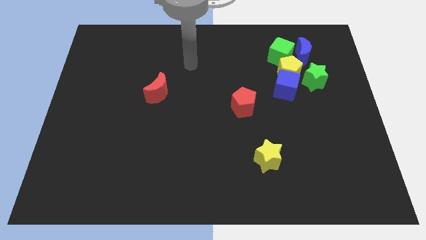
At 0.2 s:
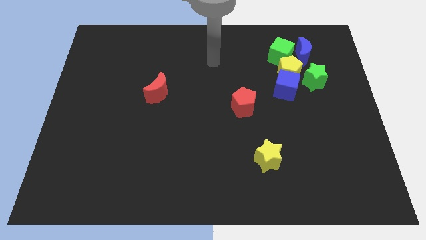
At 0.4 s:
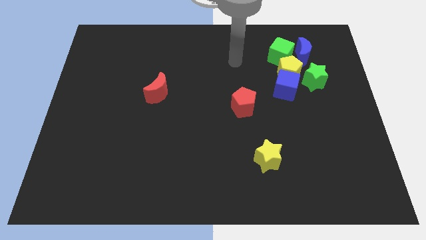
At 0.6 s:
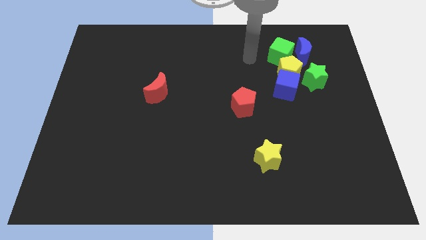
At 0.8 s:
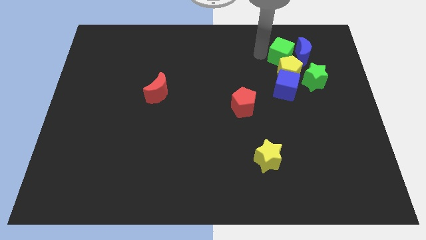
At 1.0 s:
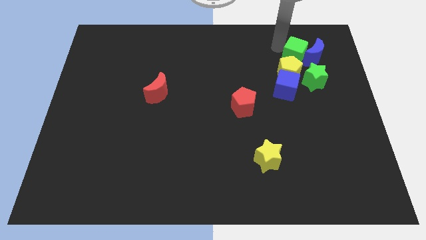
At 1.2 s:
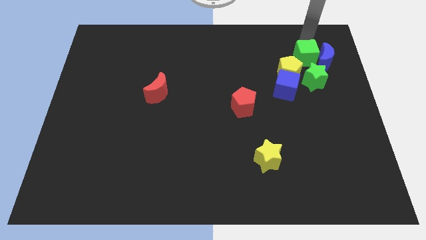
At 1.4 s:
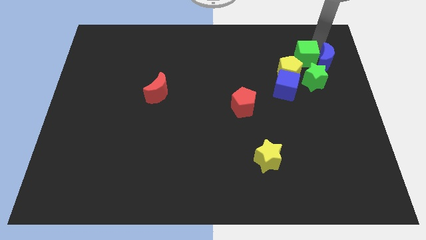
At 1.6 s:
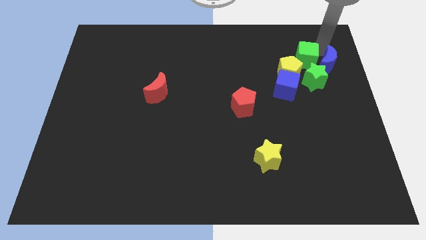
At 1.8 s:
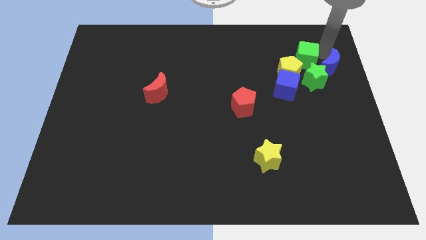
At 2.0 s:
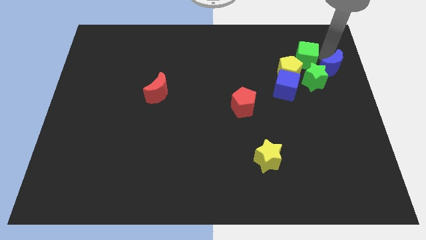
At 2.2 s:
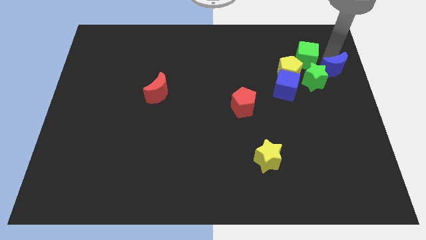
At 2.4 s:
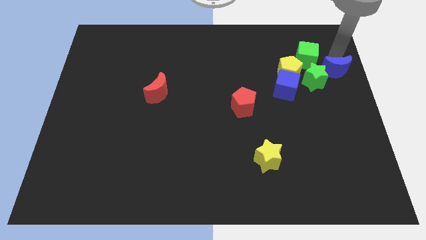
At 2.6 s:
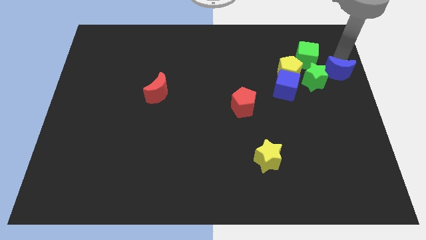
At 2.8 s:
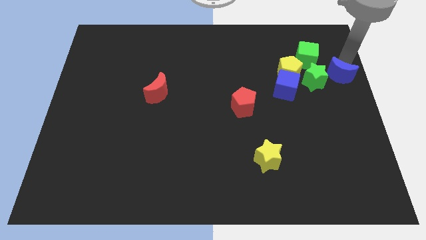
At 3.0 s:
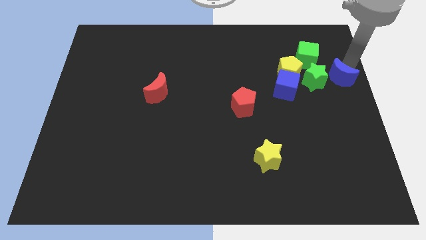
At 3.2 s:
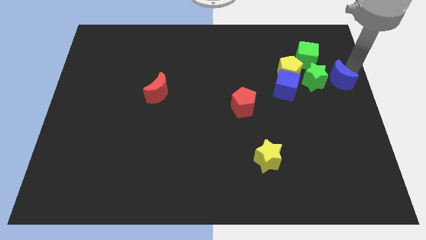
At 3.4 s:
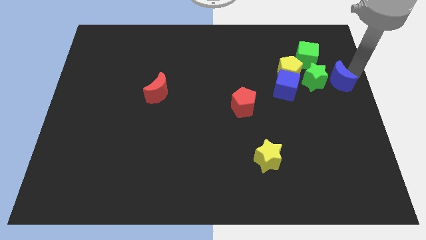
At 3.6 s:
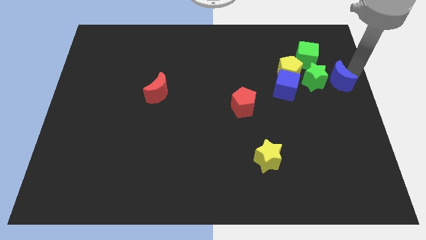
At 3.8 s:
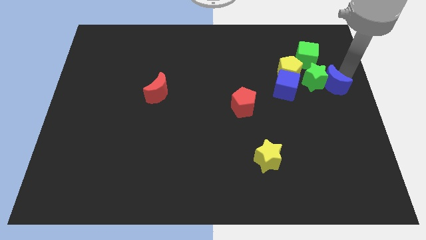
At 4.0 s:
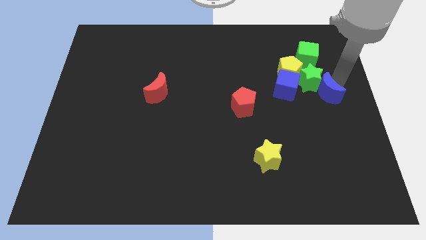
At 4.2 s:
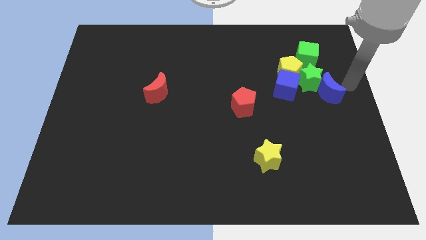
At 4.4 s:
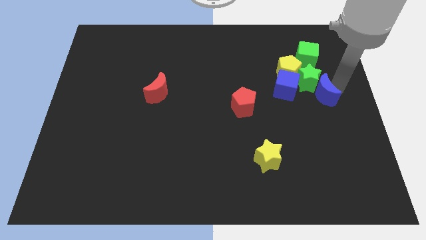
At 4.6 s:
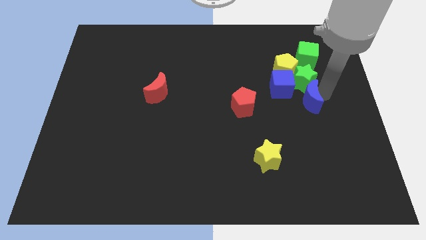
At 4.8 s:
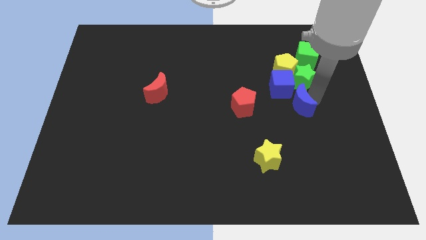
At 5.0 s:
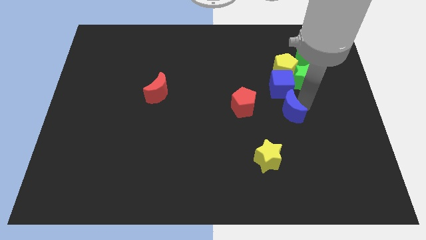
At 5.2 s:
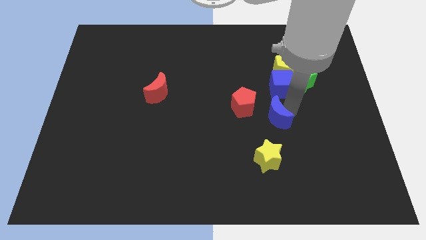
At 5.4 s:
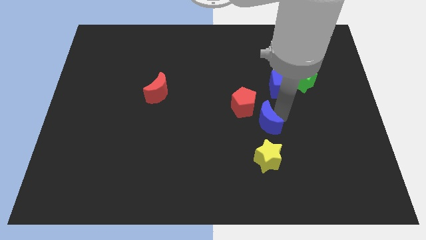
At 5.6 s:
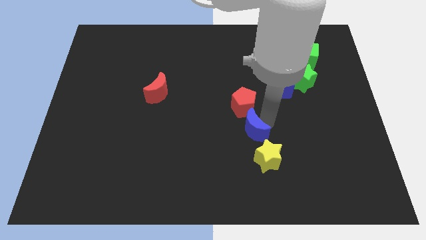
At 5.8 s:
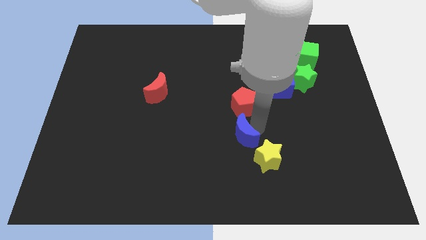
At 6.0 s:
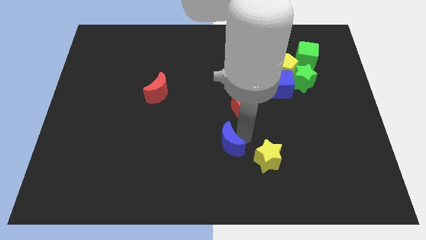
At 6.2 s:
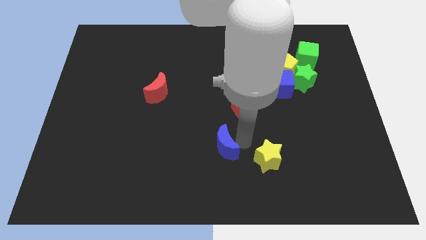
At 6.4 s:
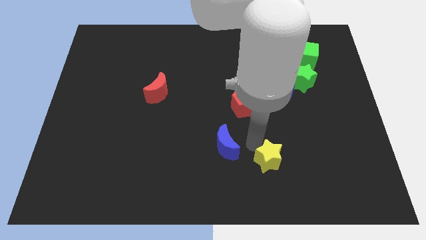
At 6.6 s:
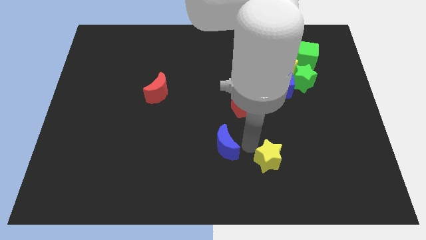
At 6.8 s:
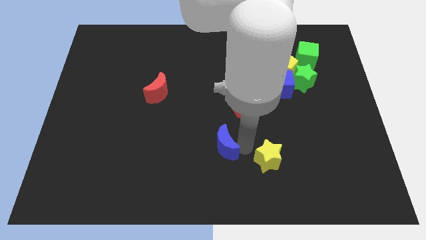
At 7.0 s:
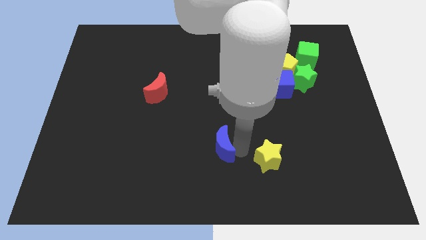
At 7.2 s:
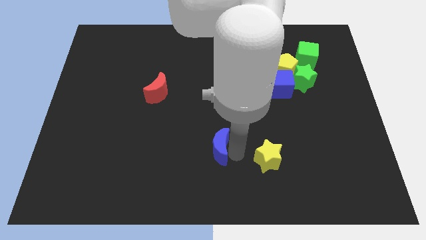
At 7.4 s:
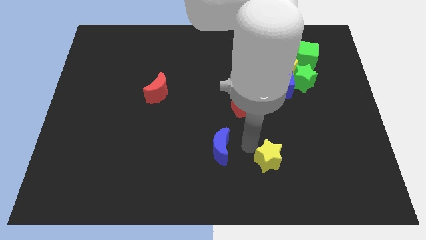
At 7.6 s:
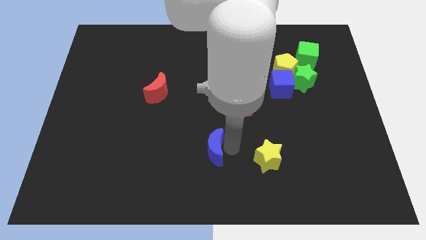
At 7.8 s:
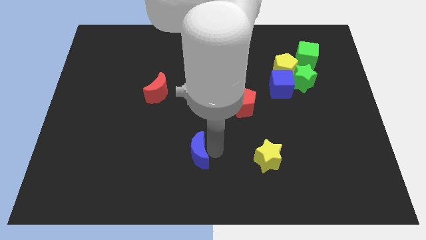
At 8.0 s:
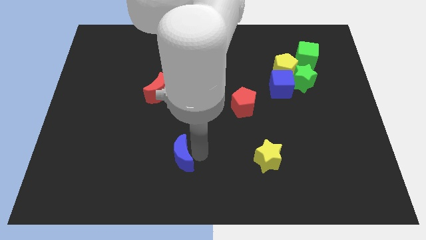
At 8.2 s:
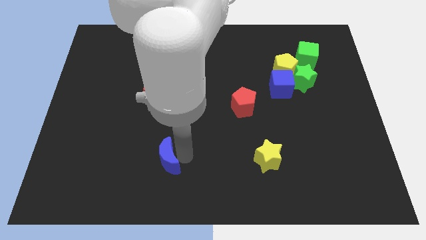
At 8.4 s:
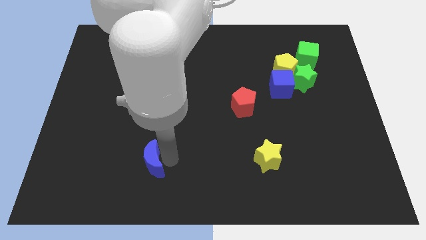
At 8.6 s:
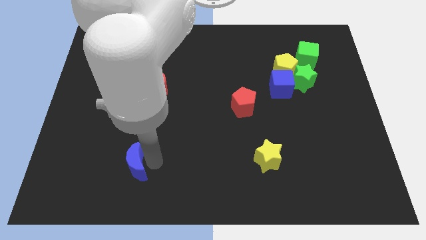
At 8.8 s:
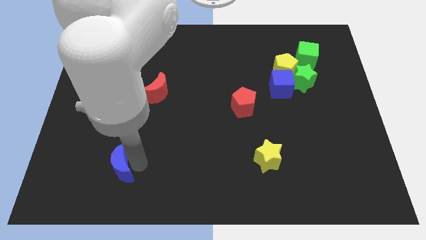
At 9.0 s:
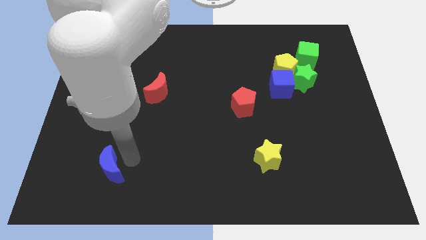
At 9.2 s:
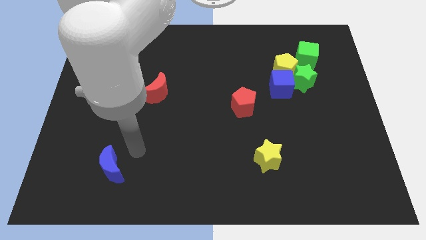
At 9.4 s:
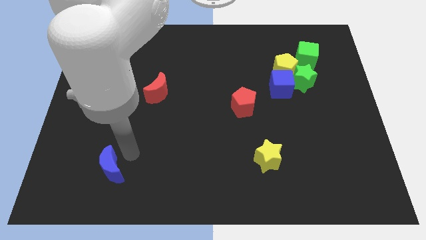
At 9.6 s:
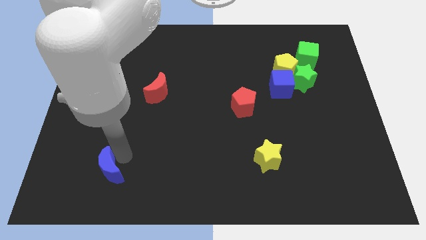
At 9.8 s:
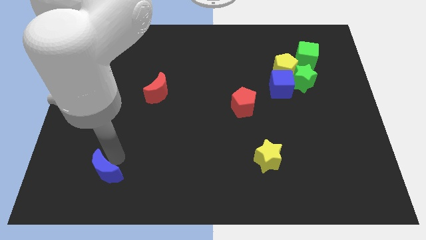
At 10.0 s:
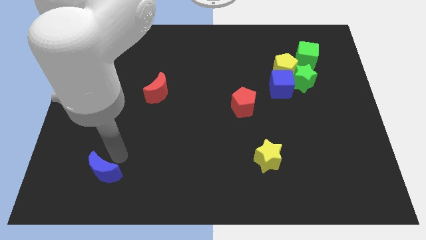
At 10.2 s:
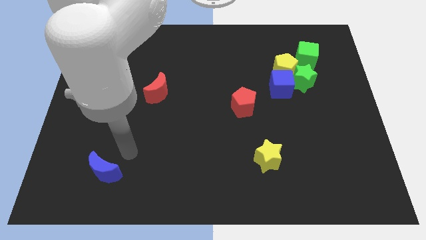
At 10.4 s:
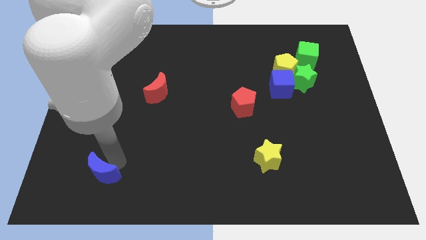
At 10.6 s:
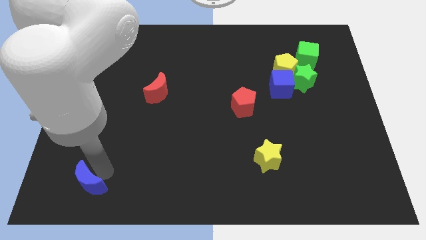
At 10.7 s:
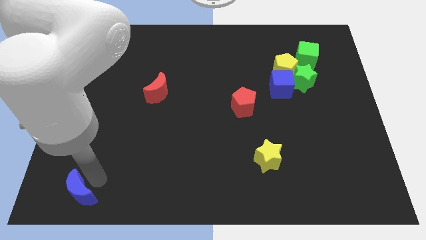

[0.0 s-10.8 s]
push the blue moon to the bottom left of the board

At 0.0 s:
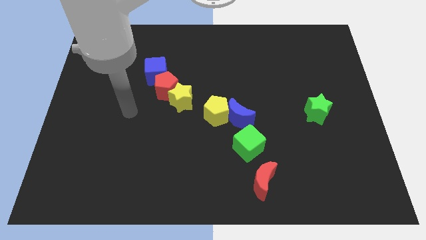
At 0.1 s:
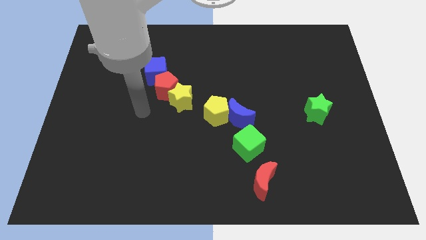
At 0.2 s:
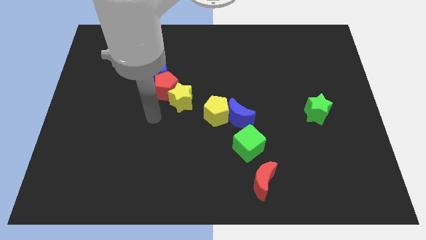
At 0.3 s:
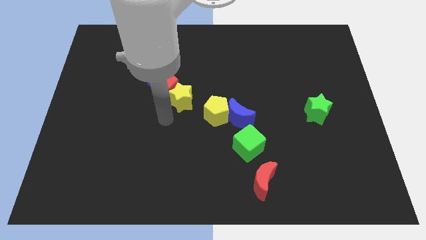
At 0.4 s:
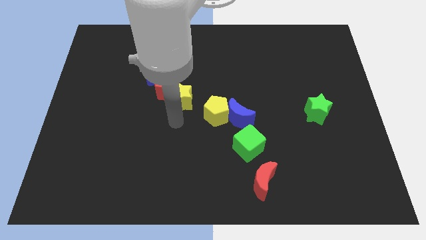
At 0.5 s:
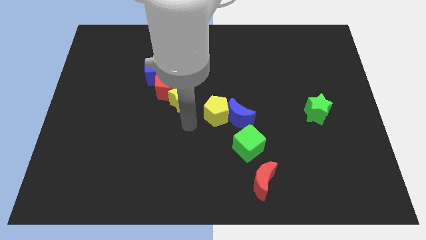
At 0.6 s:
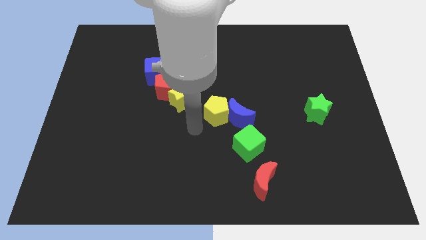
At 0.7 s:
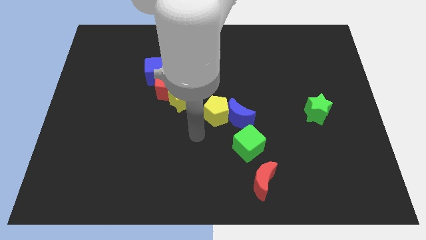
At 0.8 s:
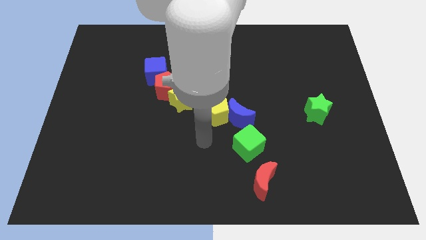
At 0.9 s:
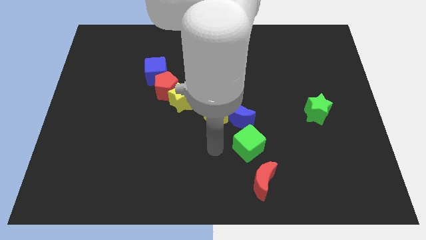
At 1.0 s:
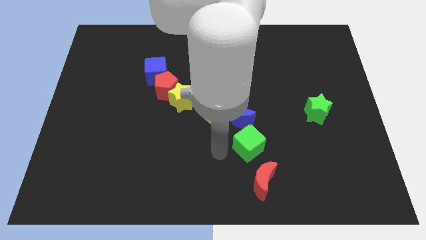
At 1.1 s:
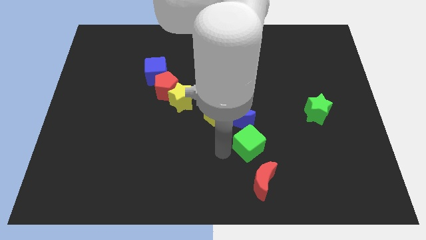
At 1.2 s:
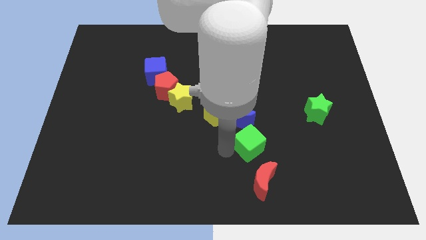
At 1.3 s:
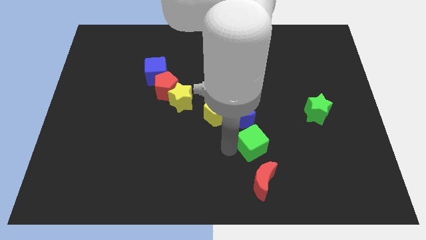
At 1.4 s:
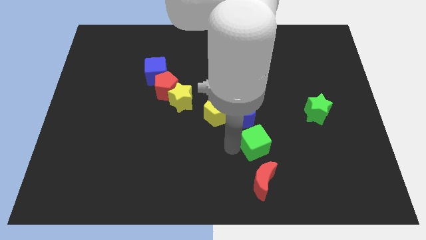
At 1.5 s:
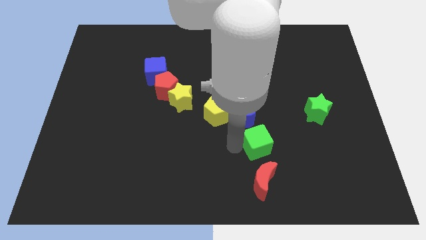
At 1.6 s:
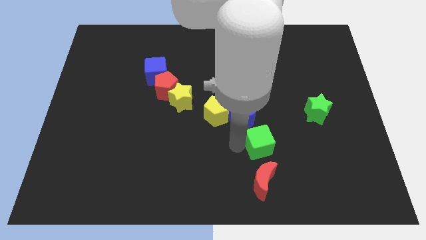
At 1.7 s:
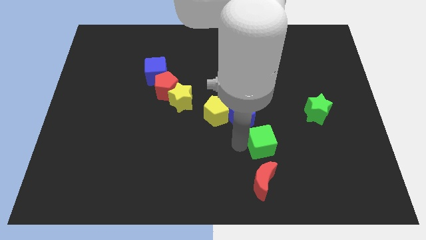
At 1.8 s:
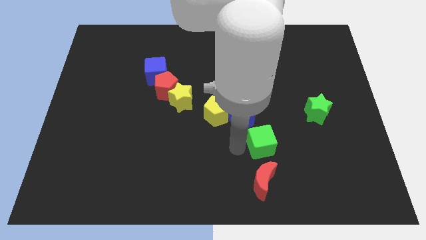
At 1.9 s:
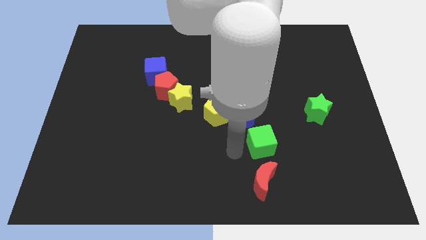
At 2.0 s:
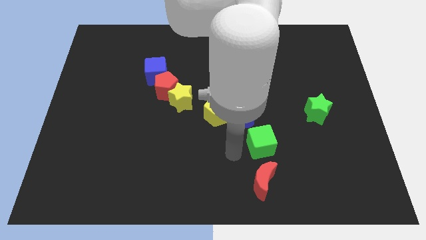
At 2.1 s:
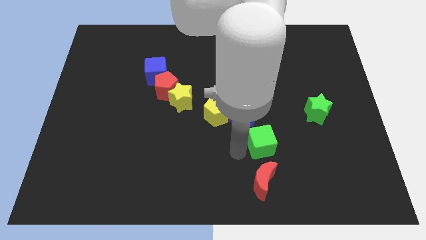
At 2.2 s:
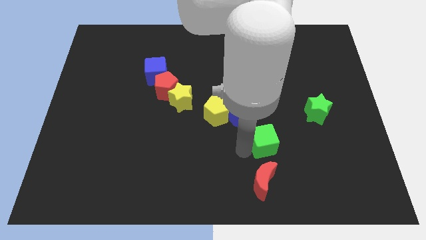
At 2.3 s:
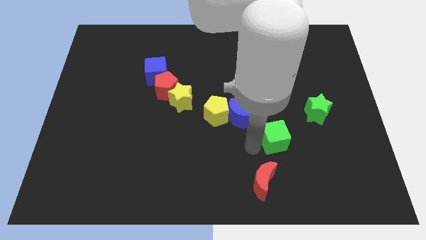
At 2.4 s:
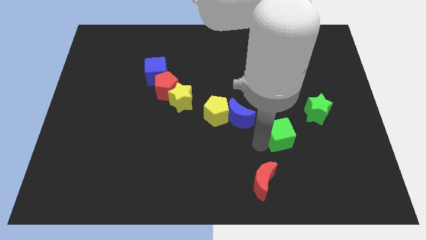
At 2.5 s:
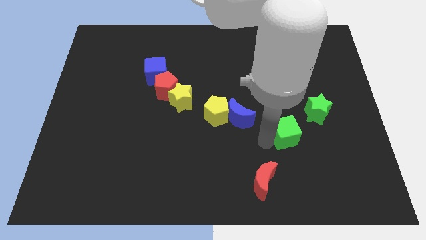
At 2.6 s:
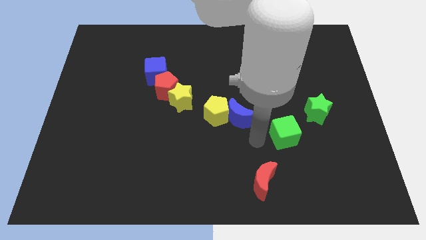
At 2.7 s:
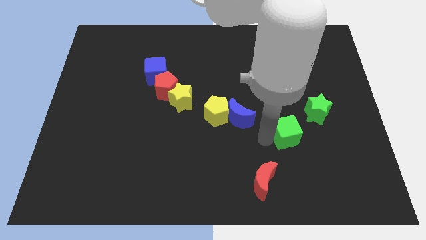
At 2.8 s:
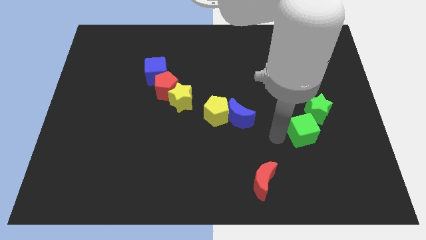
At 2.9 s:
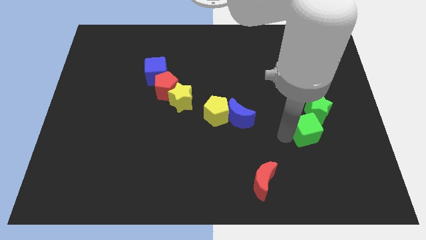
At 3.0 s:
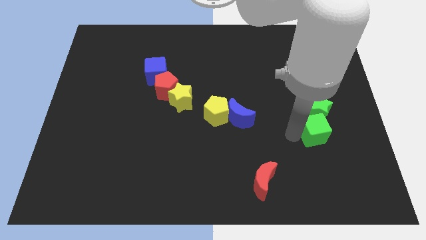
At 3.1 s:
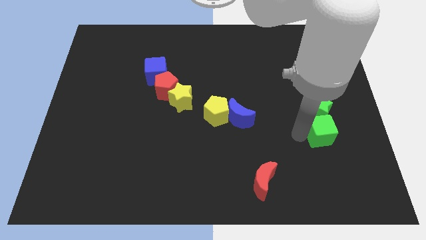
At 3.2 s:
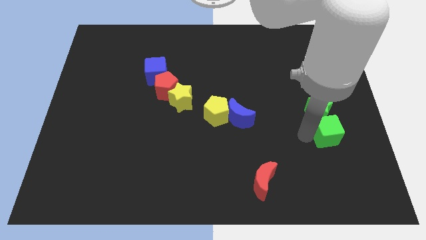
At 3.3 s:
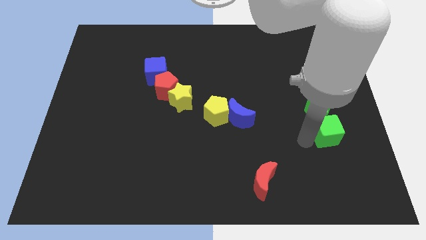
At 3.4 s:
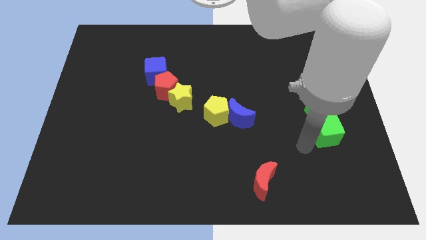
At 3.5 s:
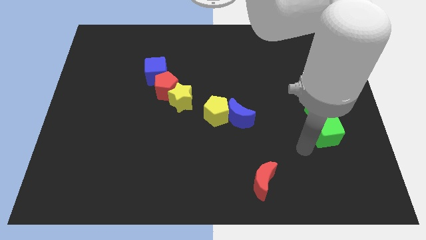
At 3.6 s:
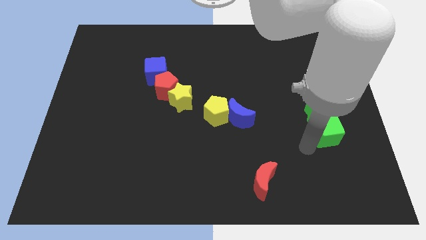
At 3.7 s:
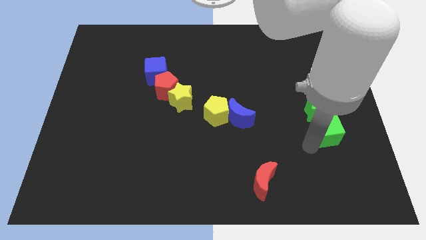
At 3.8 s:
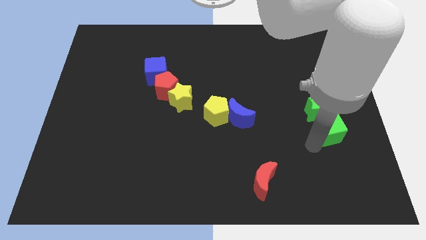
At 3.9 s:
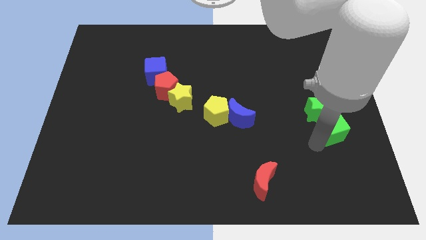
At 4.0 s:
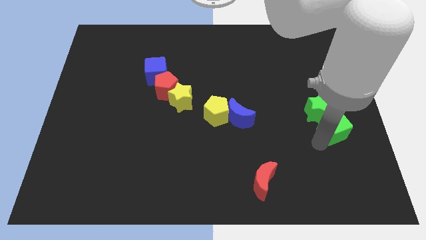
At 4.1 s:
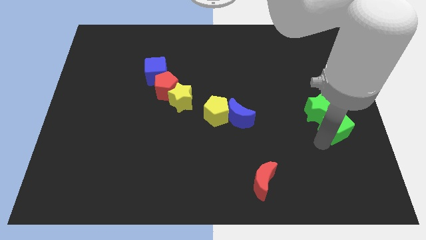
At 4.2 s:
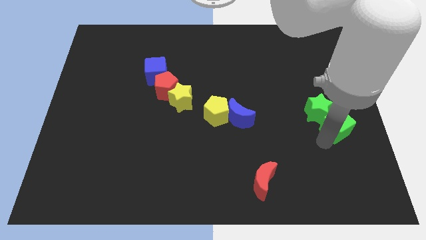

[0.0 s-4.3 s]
slide the green cube to the center right
